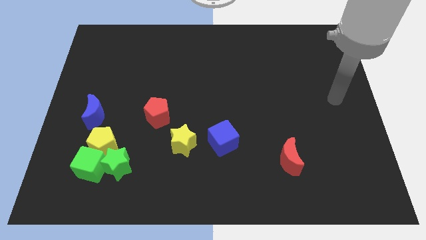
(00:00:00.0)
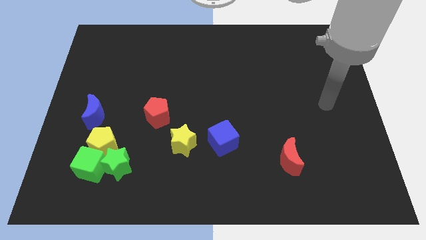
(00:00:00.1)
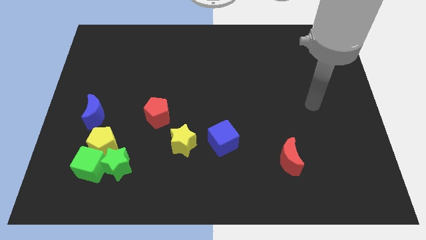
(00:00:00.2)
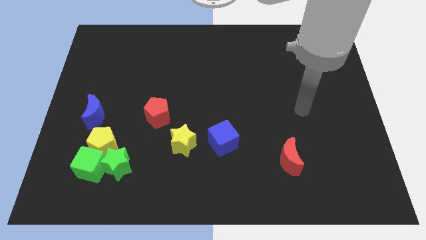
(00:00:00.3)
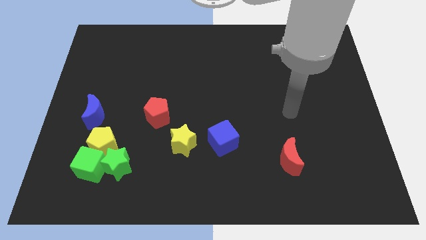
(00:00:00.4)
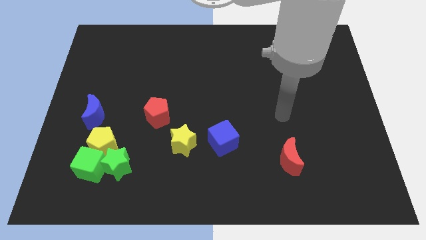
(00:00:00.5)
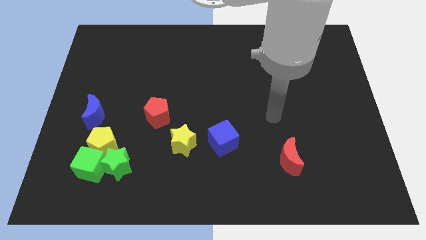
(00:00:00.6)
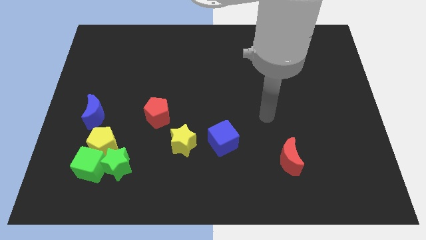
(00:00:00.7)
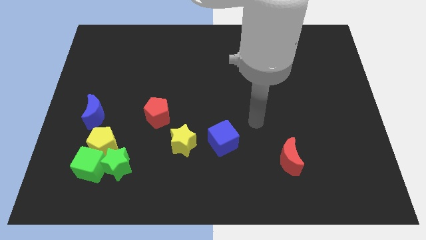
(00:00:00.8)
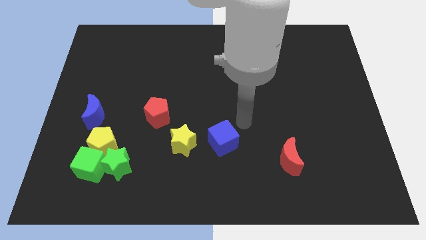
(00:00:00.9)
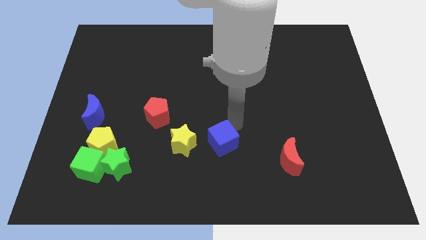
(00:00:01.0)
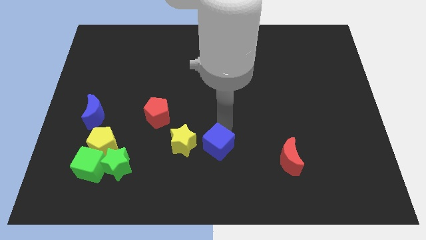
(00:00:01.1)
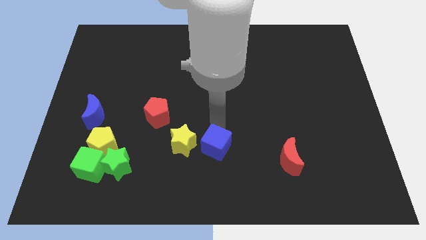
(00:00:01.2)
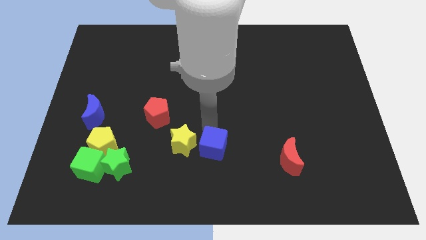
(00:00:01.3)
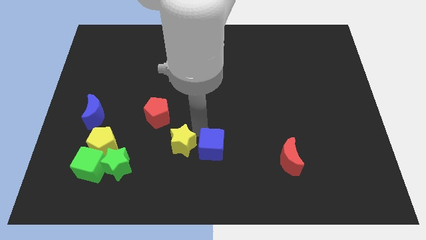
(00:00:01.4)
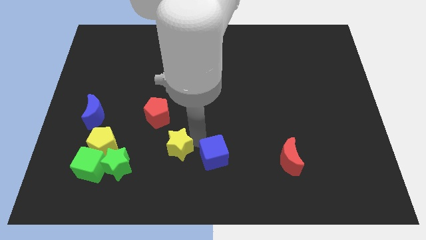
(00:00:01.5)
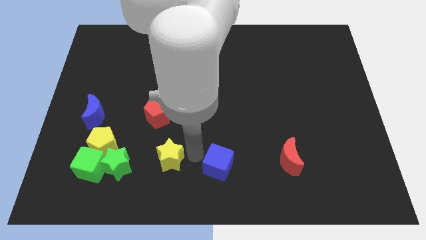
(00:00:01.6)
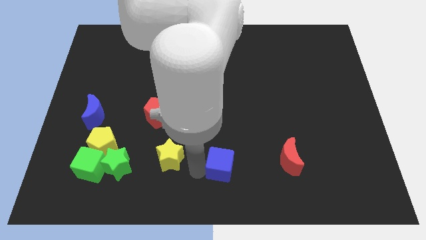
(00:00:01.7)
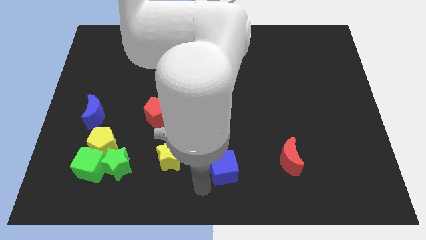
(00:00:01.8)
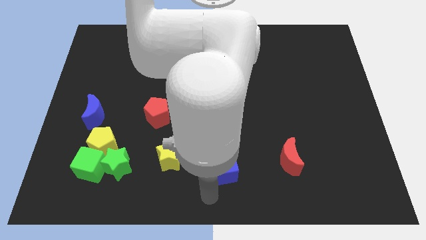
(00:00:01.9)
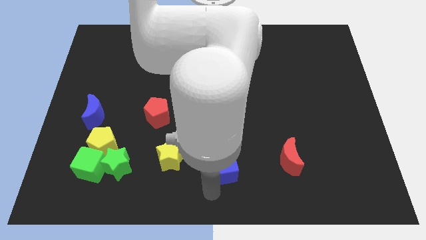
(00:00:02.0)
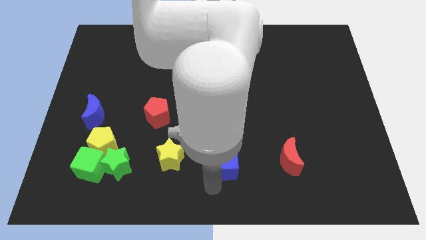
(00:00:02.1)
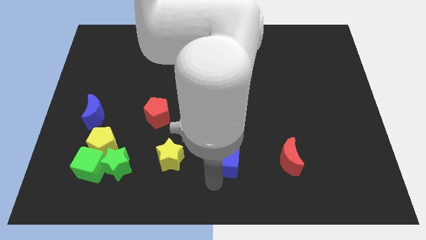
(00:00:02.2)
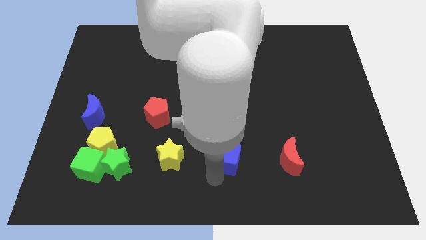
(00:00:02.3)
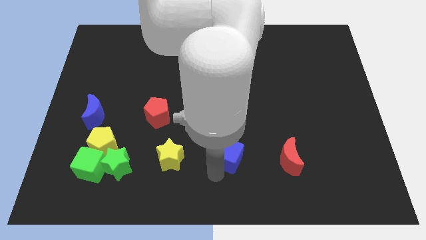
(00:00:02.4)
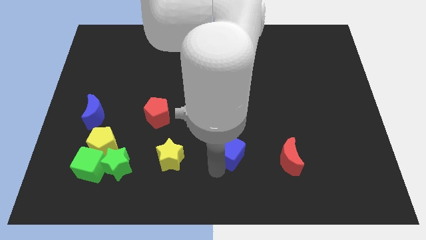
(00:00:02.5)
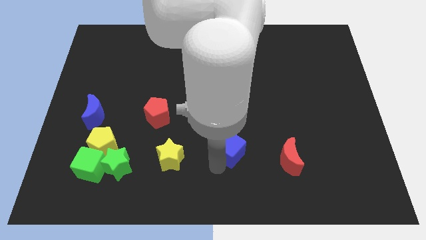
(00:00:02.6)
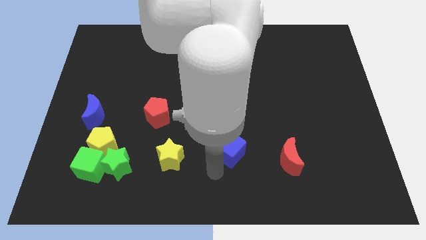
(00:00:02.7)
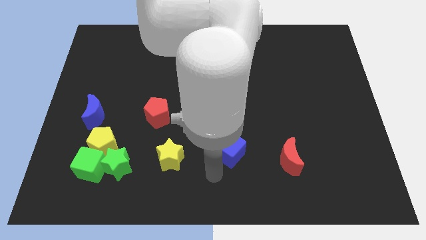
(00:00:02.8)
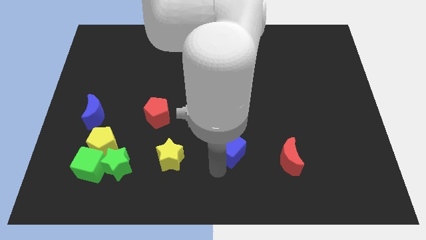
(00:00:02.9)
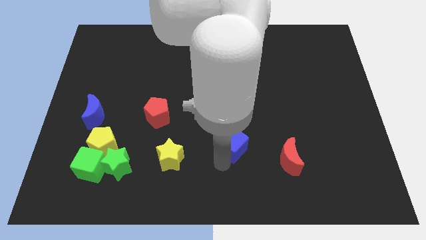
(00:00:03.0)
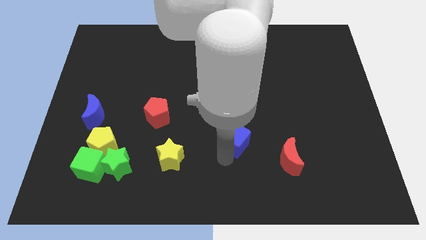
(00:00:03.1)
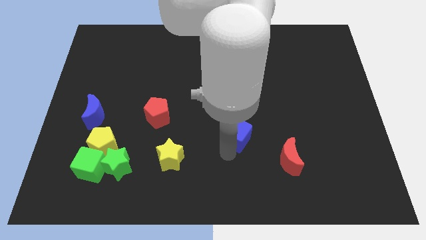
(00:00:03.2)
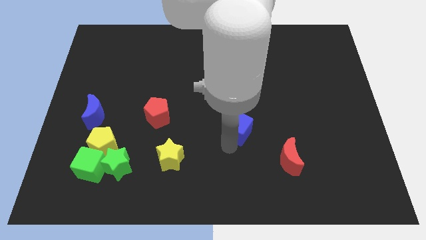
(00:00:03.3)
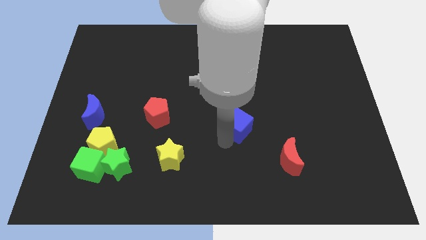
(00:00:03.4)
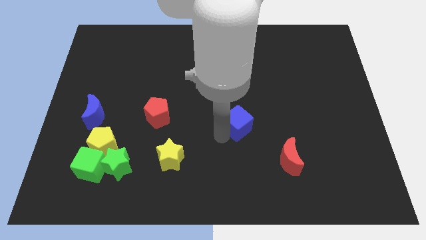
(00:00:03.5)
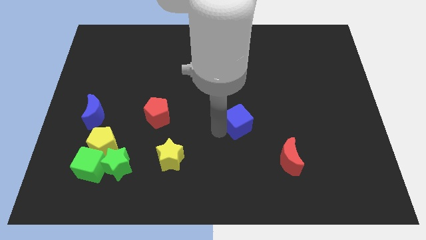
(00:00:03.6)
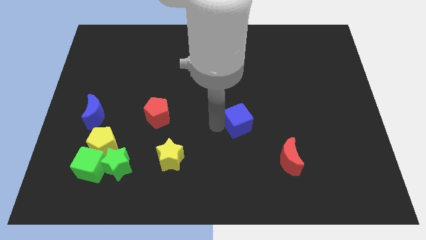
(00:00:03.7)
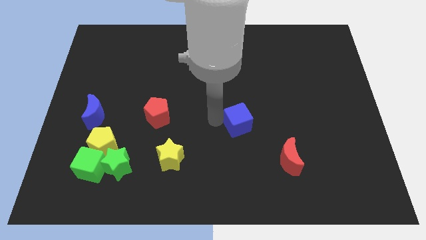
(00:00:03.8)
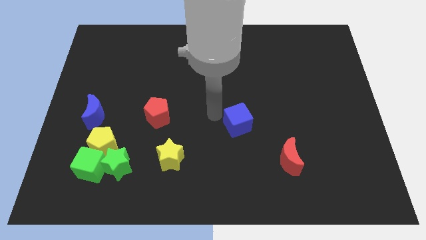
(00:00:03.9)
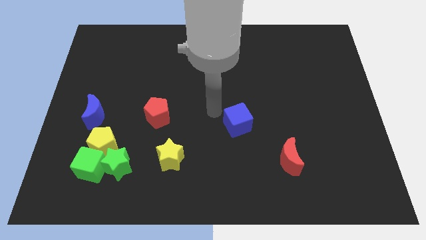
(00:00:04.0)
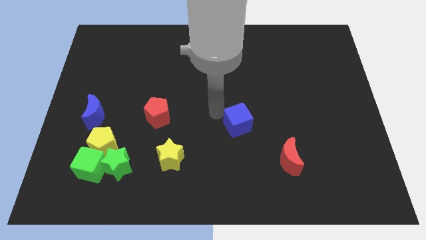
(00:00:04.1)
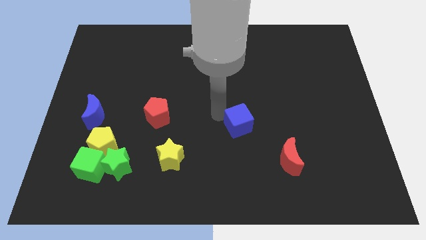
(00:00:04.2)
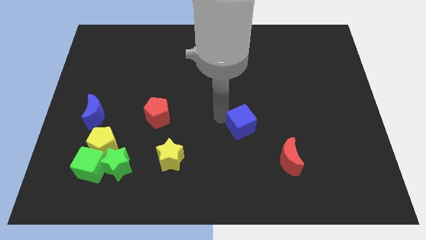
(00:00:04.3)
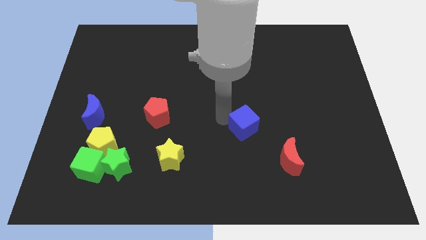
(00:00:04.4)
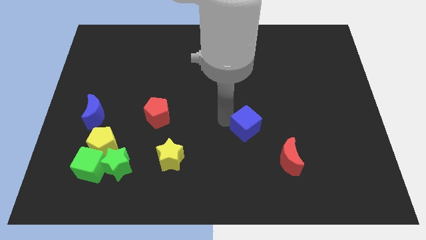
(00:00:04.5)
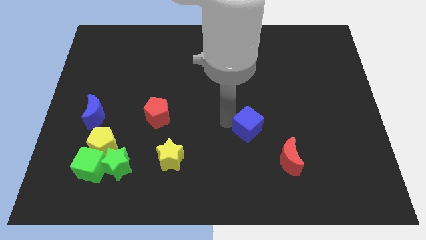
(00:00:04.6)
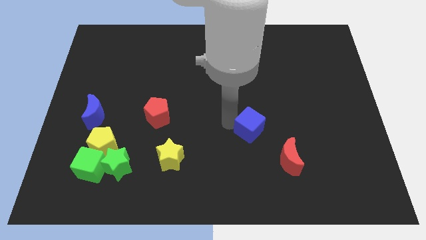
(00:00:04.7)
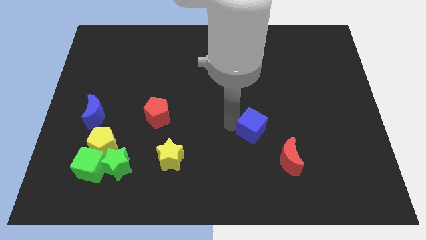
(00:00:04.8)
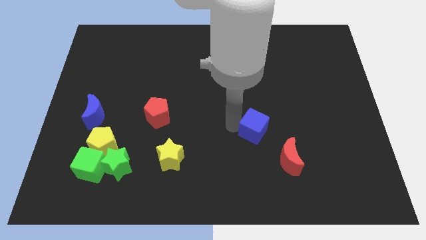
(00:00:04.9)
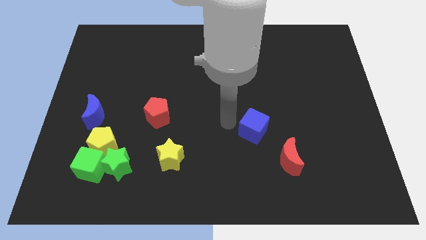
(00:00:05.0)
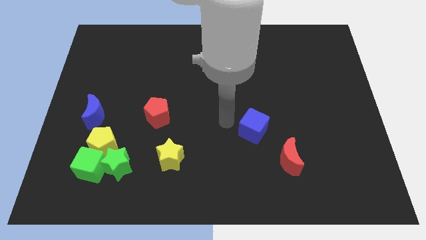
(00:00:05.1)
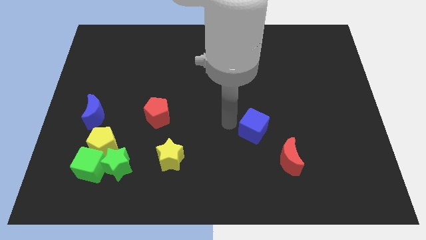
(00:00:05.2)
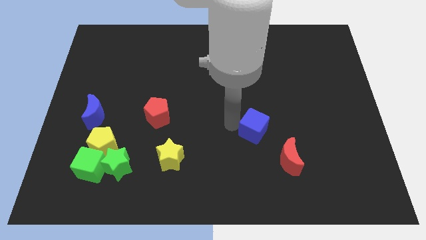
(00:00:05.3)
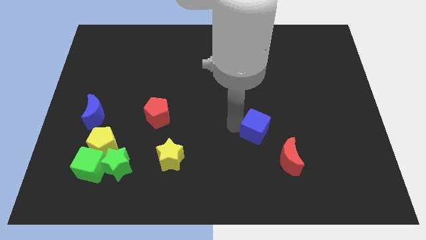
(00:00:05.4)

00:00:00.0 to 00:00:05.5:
slide the blue cube to the right a little

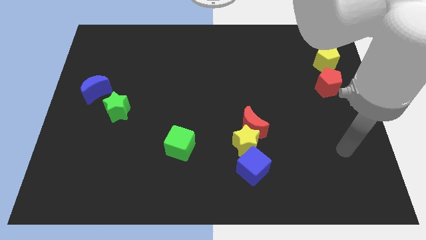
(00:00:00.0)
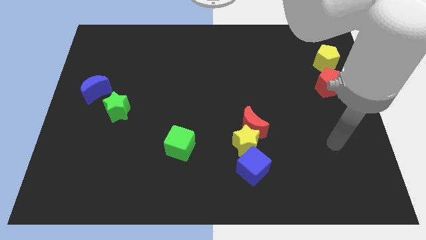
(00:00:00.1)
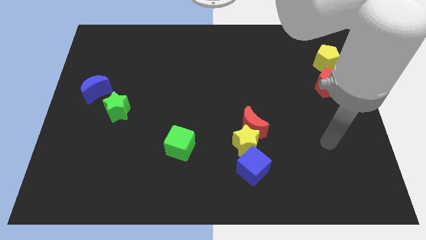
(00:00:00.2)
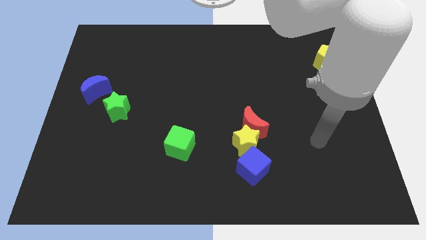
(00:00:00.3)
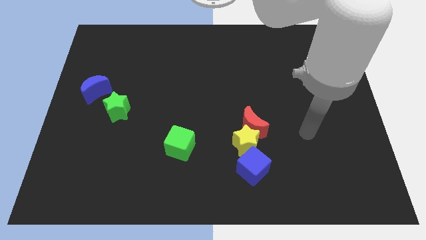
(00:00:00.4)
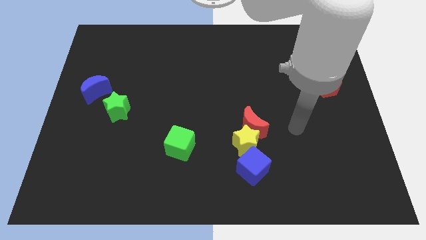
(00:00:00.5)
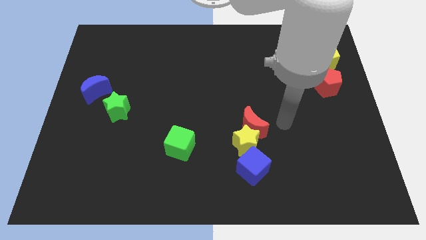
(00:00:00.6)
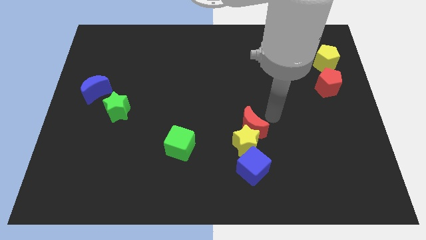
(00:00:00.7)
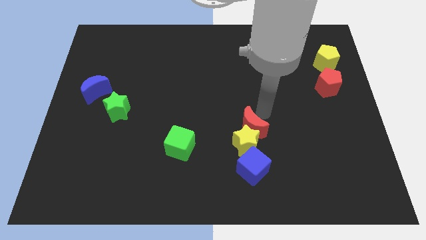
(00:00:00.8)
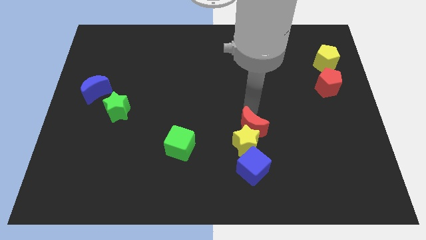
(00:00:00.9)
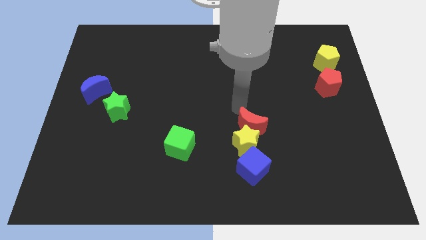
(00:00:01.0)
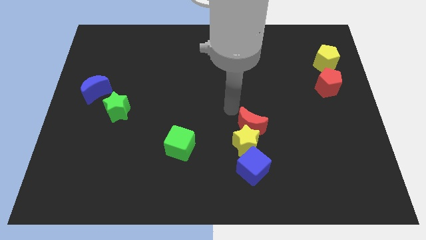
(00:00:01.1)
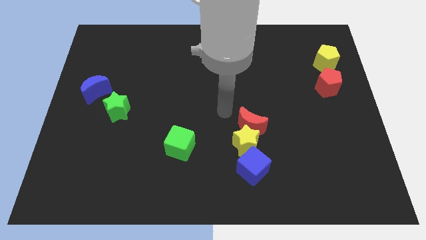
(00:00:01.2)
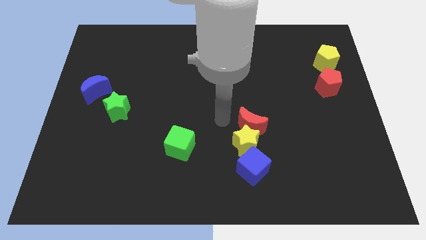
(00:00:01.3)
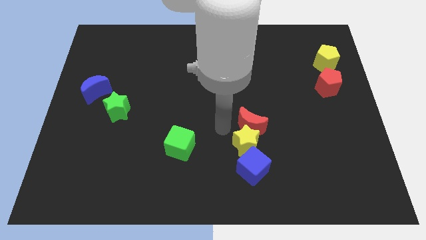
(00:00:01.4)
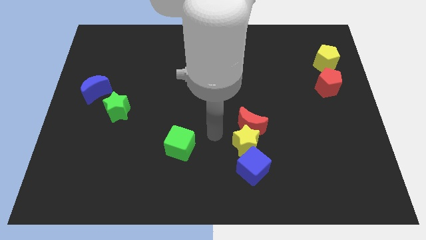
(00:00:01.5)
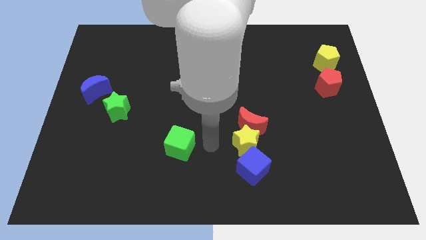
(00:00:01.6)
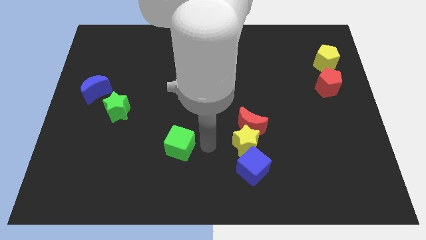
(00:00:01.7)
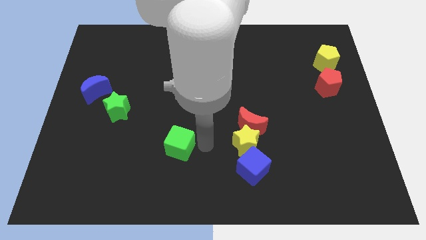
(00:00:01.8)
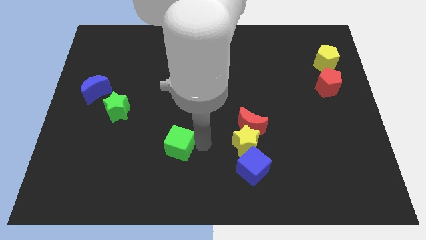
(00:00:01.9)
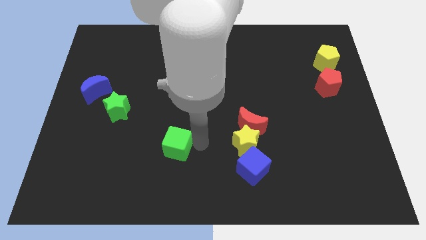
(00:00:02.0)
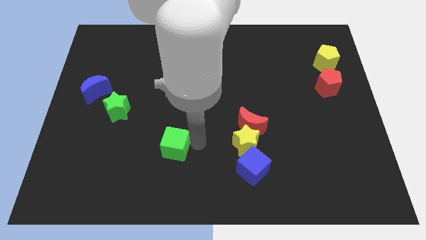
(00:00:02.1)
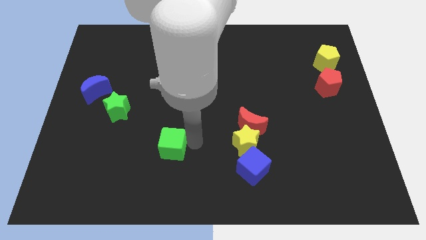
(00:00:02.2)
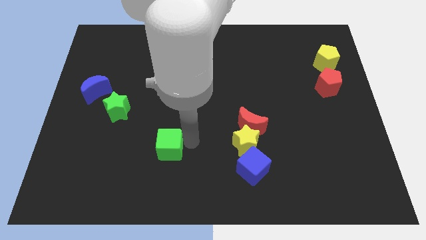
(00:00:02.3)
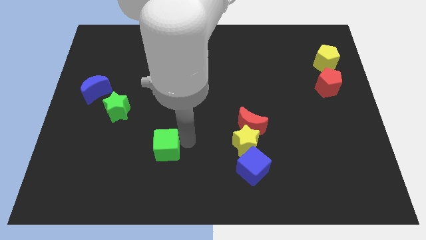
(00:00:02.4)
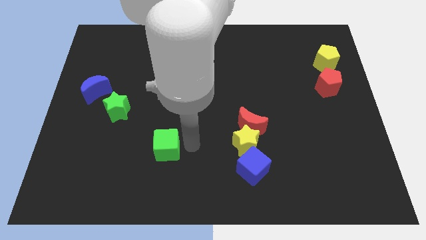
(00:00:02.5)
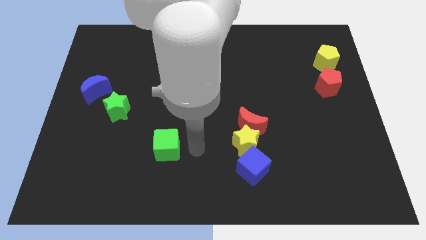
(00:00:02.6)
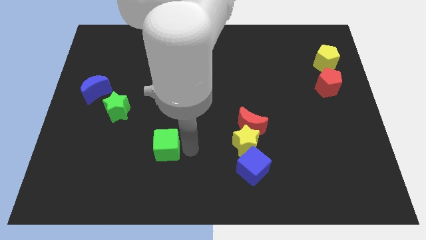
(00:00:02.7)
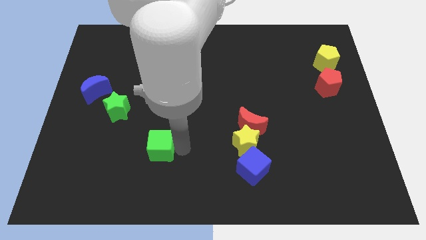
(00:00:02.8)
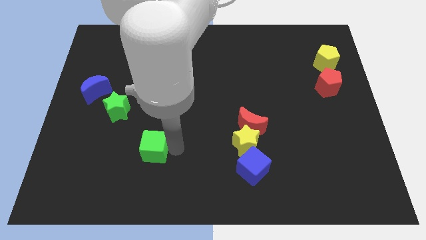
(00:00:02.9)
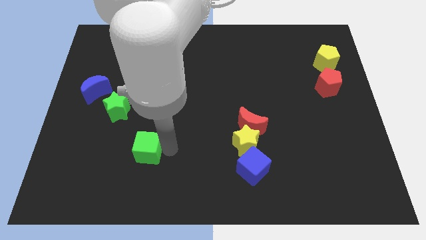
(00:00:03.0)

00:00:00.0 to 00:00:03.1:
slightly slide the green cube left
